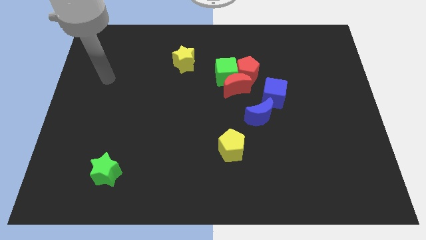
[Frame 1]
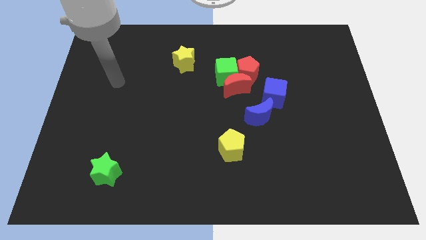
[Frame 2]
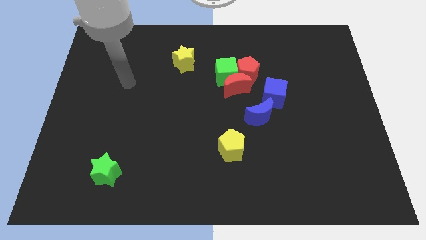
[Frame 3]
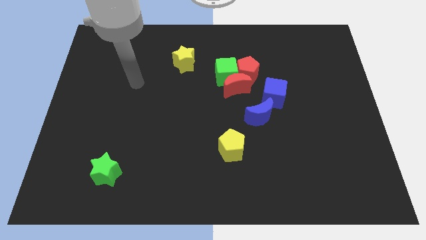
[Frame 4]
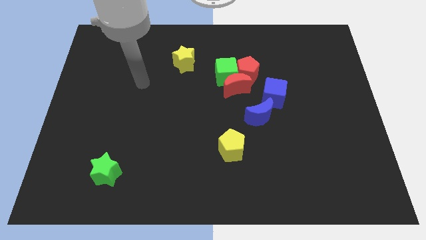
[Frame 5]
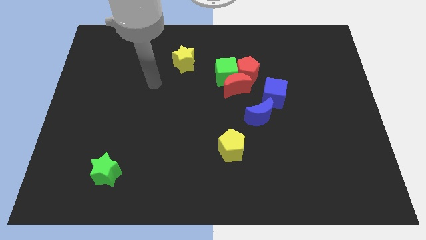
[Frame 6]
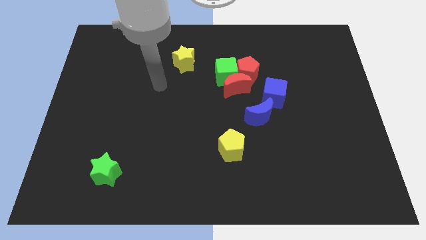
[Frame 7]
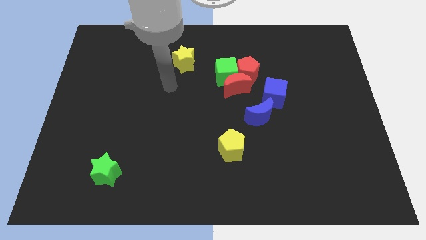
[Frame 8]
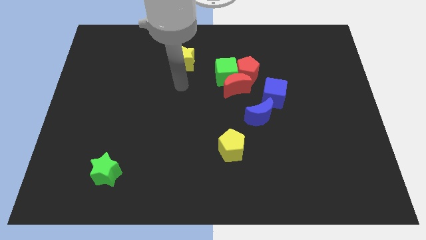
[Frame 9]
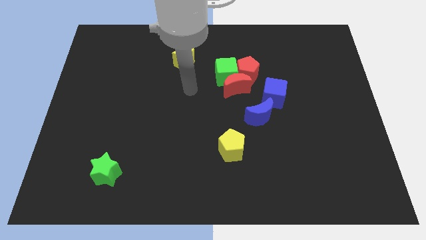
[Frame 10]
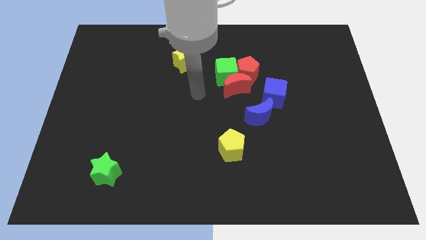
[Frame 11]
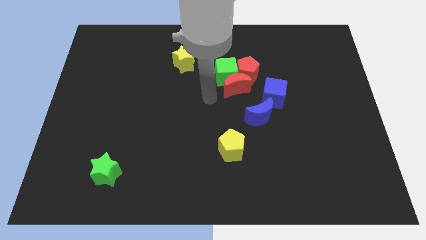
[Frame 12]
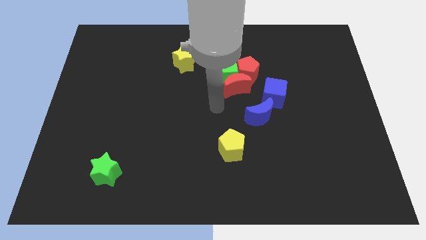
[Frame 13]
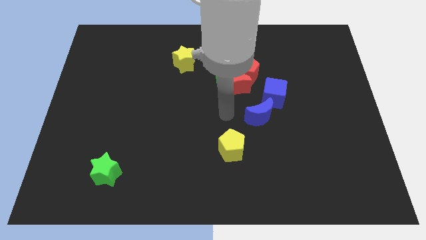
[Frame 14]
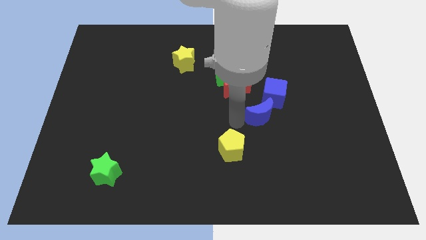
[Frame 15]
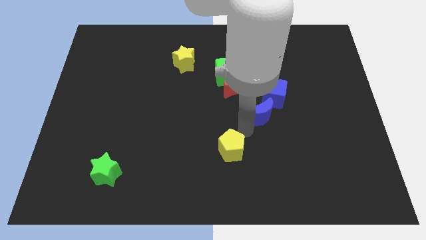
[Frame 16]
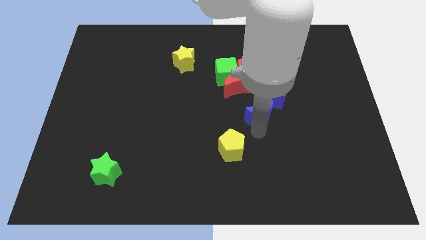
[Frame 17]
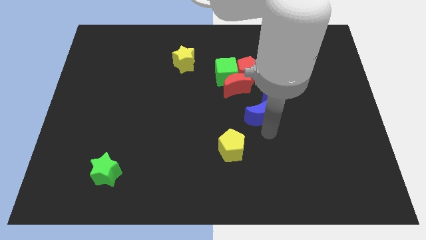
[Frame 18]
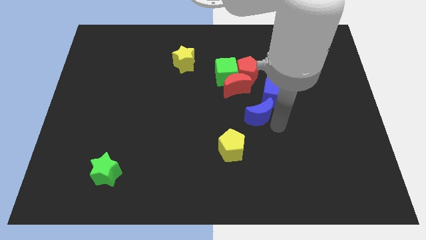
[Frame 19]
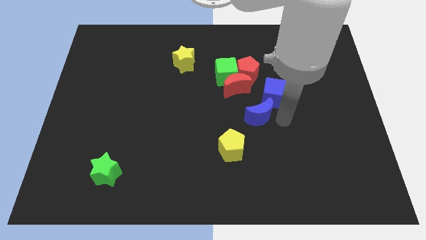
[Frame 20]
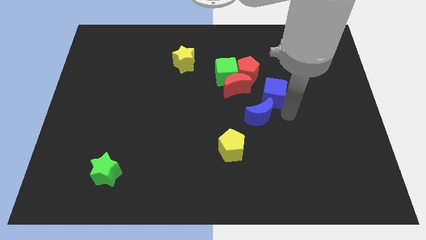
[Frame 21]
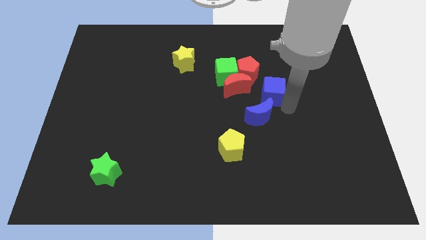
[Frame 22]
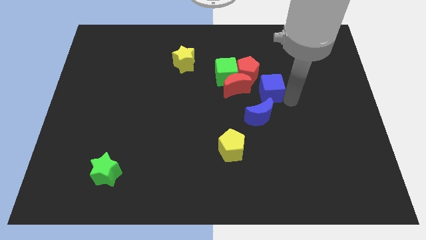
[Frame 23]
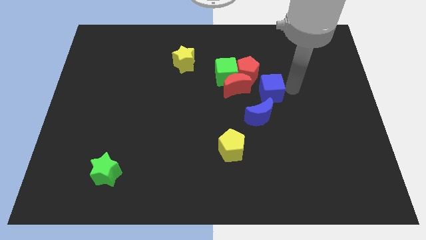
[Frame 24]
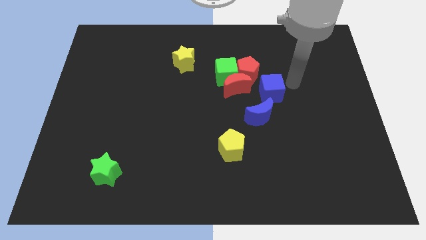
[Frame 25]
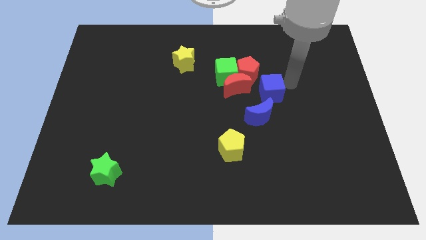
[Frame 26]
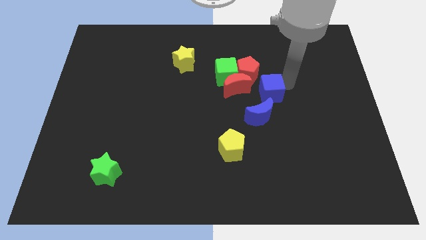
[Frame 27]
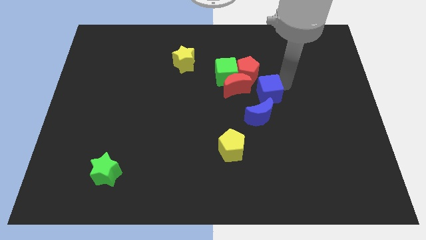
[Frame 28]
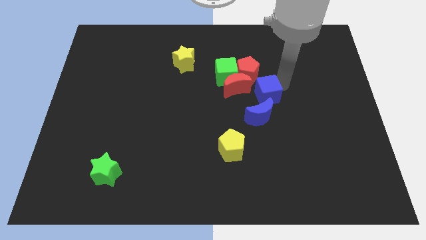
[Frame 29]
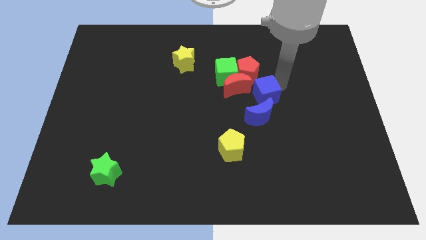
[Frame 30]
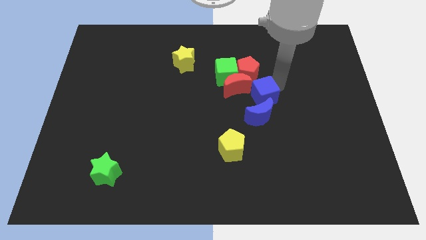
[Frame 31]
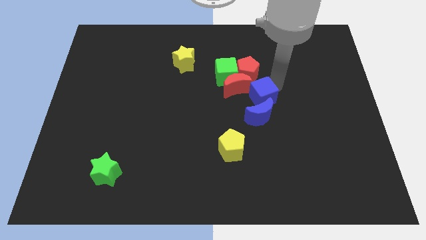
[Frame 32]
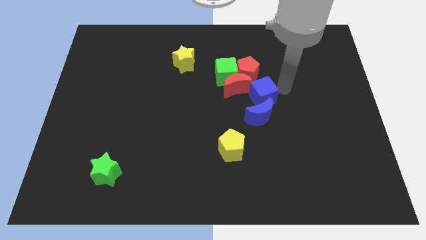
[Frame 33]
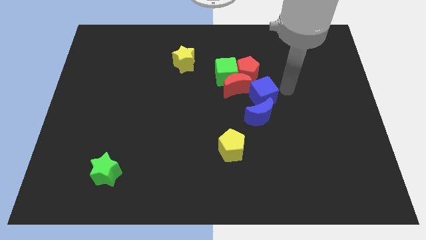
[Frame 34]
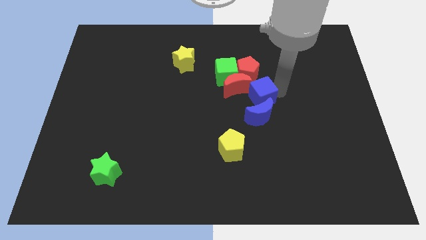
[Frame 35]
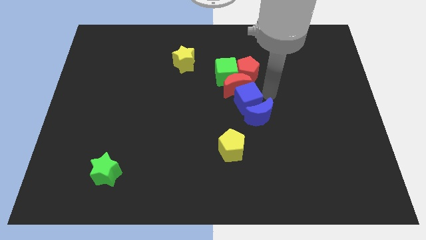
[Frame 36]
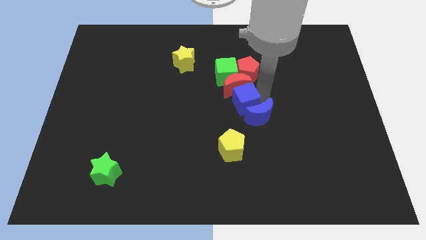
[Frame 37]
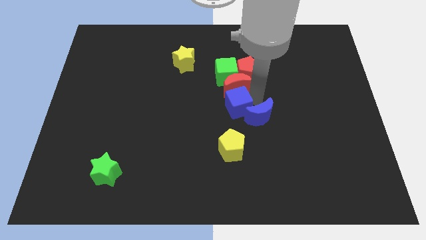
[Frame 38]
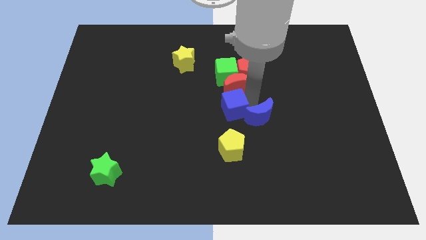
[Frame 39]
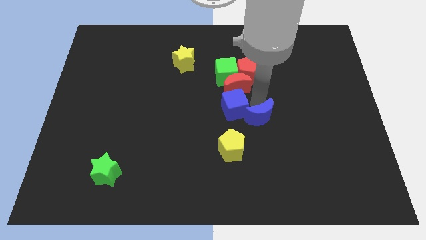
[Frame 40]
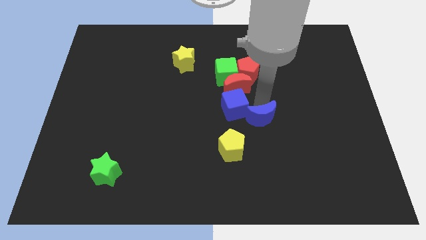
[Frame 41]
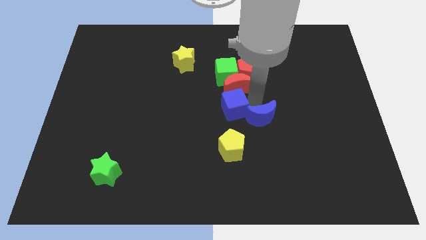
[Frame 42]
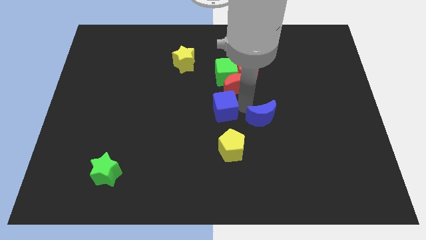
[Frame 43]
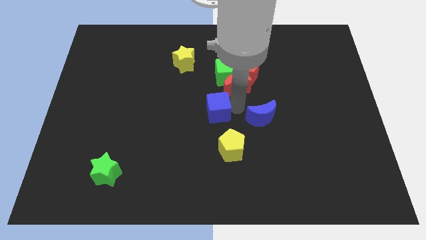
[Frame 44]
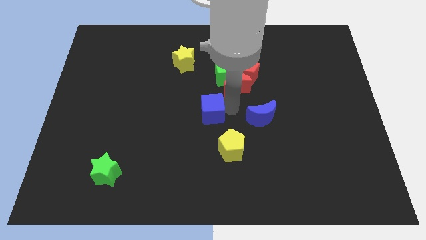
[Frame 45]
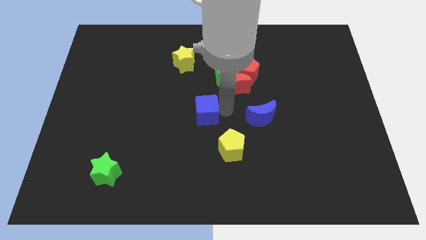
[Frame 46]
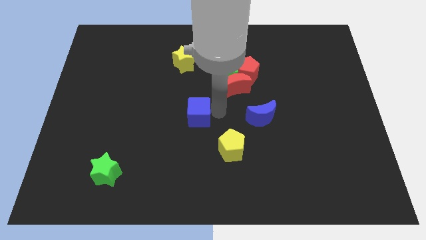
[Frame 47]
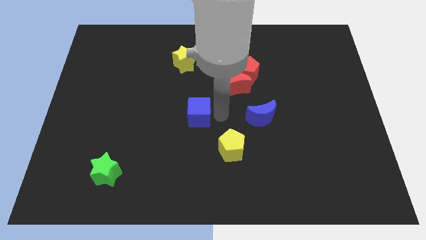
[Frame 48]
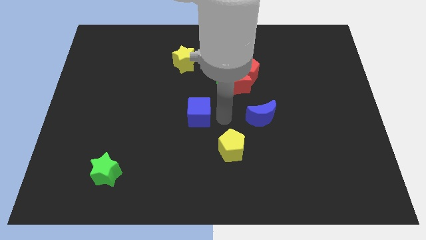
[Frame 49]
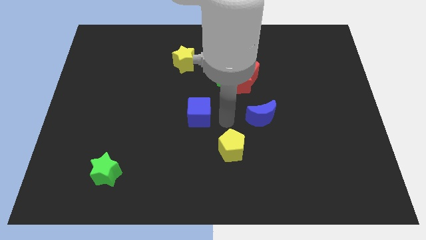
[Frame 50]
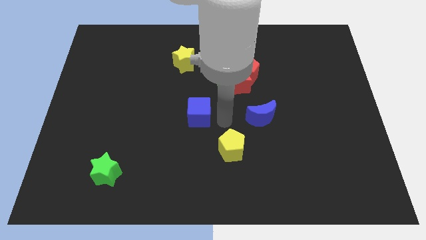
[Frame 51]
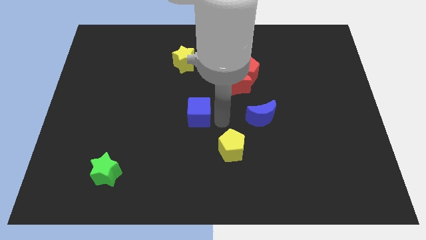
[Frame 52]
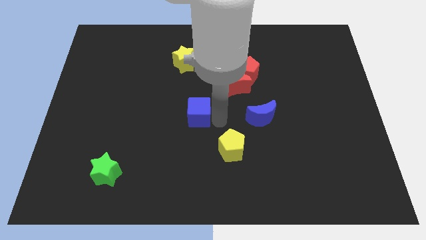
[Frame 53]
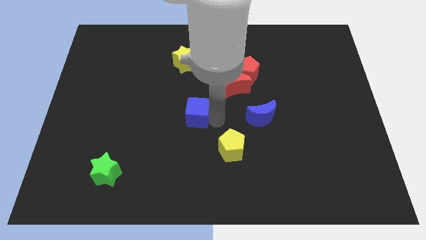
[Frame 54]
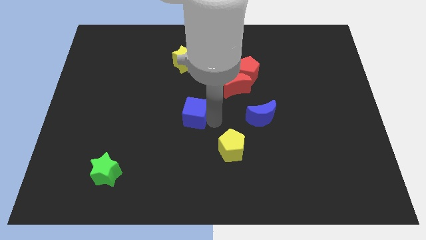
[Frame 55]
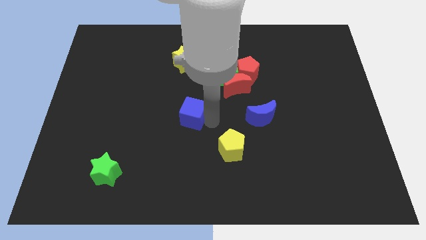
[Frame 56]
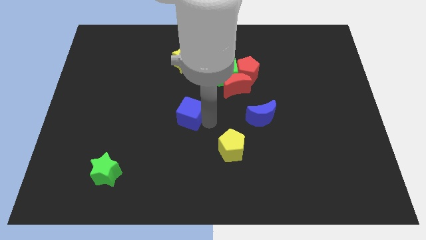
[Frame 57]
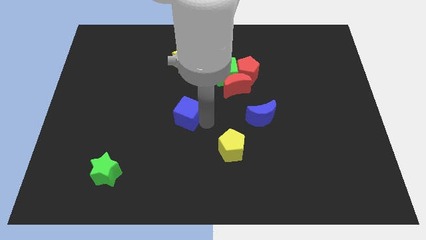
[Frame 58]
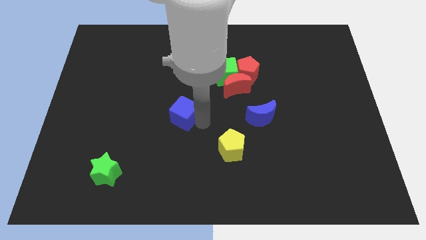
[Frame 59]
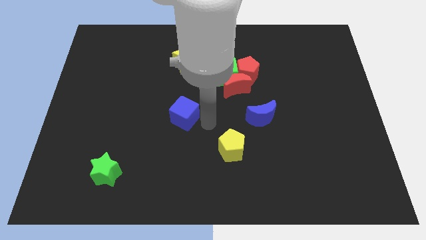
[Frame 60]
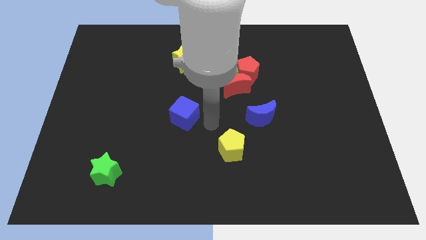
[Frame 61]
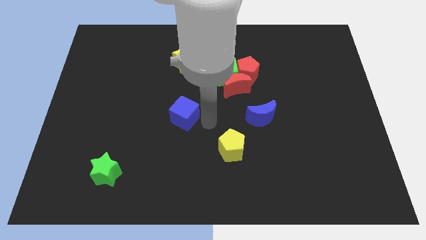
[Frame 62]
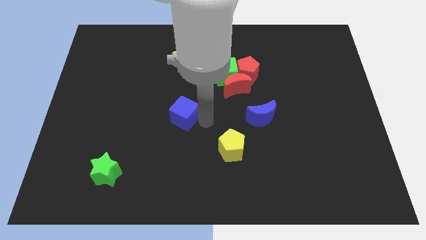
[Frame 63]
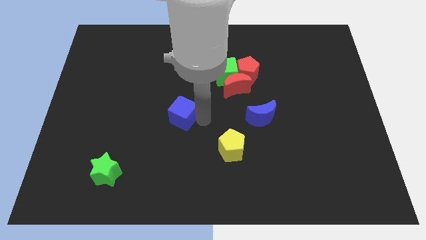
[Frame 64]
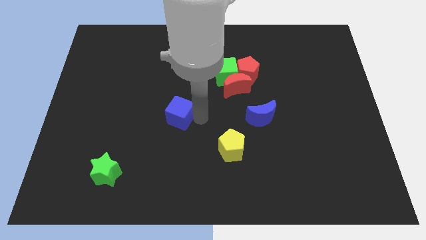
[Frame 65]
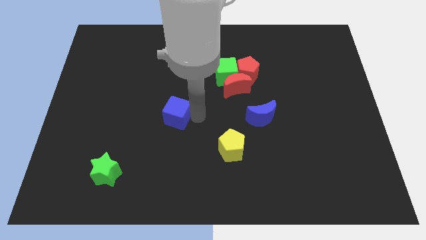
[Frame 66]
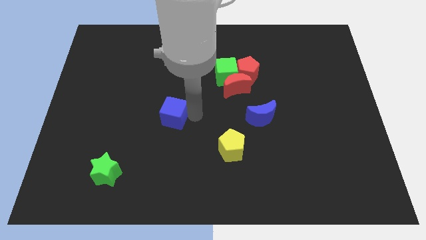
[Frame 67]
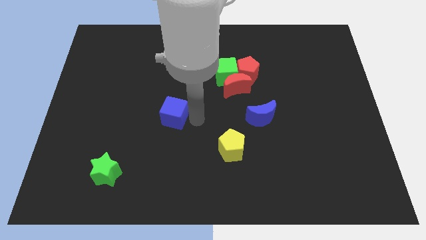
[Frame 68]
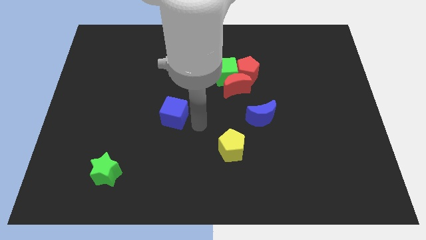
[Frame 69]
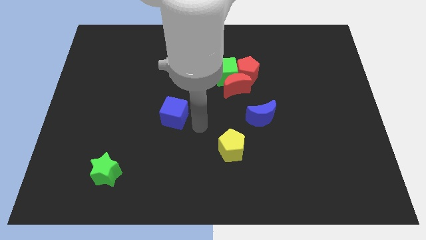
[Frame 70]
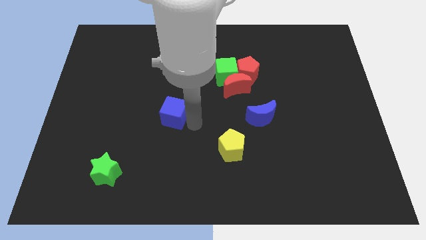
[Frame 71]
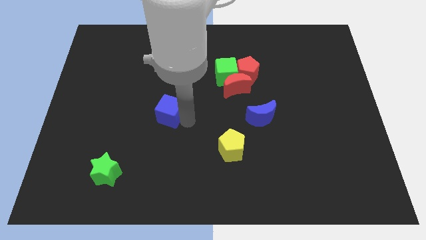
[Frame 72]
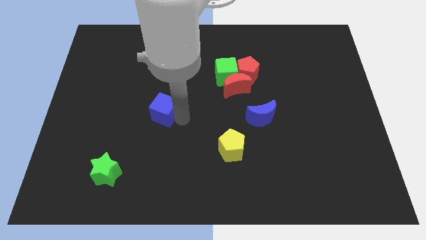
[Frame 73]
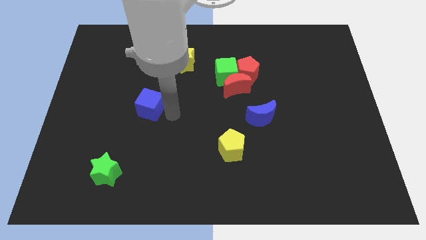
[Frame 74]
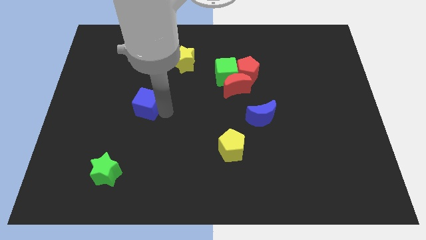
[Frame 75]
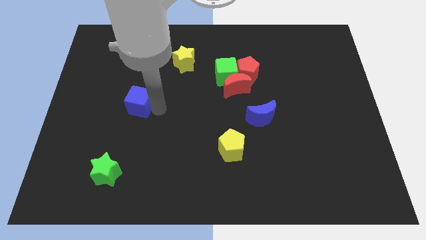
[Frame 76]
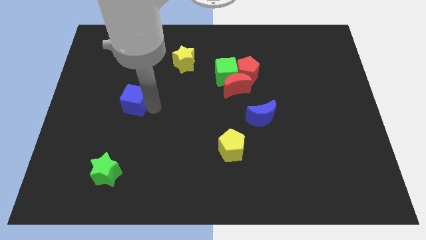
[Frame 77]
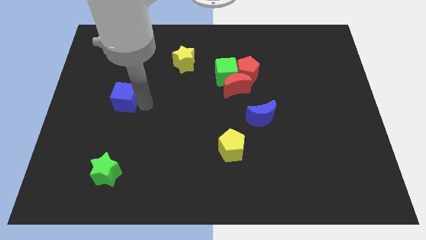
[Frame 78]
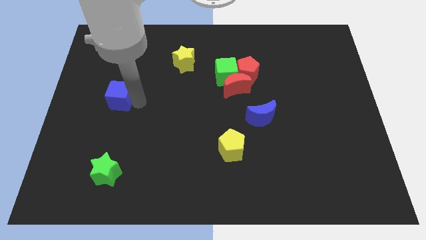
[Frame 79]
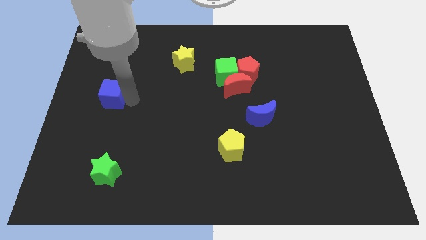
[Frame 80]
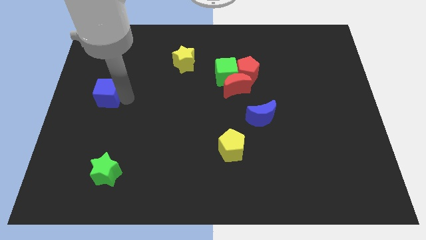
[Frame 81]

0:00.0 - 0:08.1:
slide the blue cube to the left side of the board
